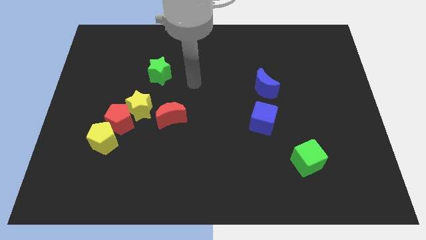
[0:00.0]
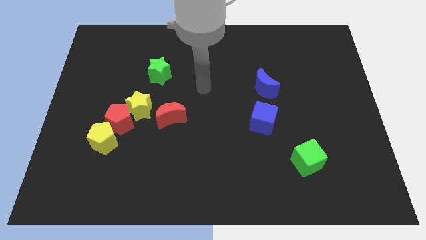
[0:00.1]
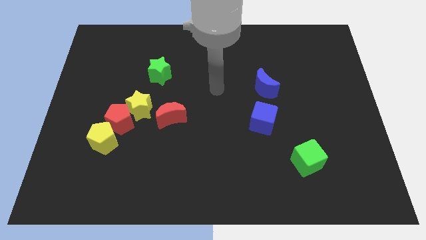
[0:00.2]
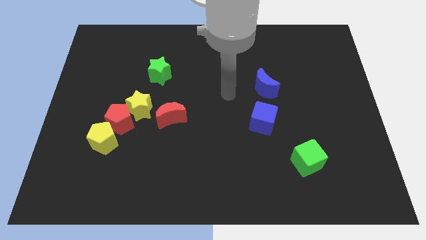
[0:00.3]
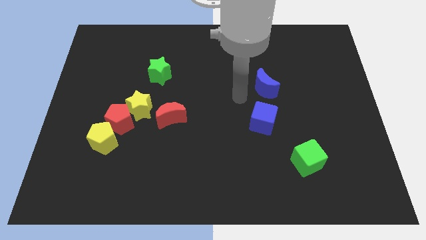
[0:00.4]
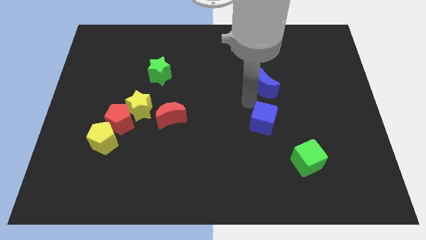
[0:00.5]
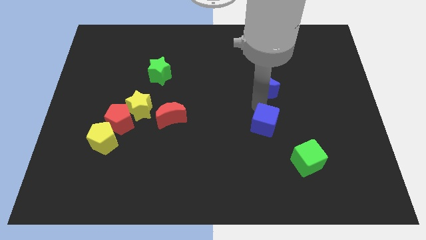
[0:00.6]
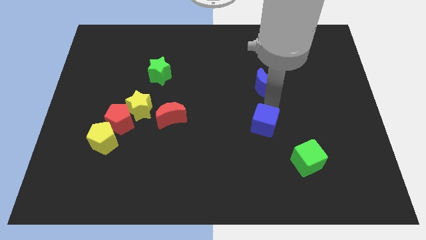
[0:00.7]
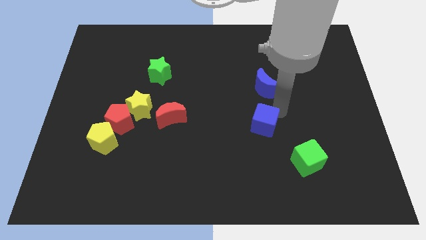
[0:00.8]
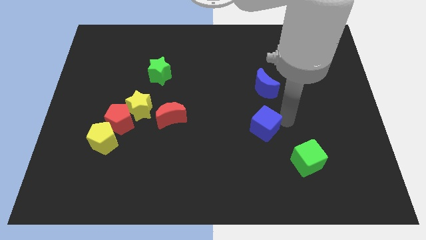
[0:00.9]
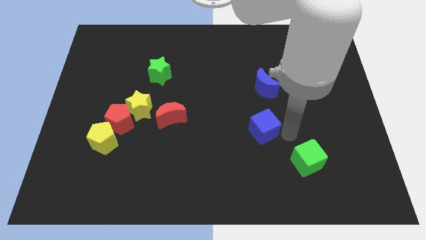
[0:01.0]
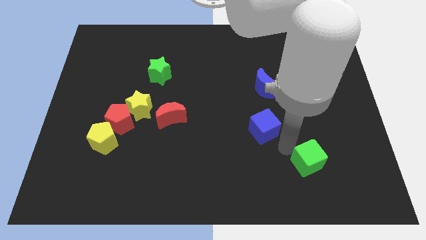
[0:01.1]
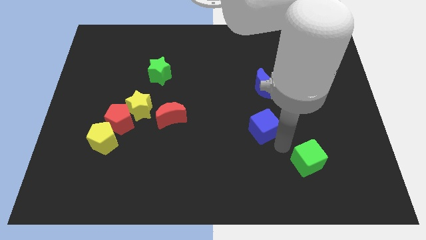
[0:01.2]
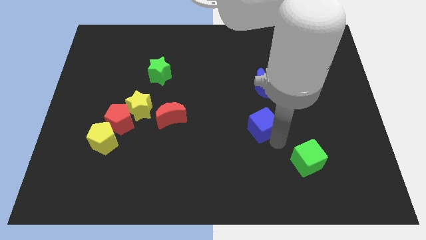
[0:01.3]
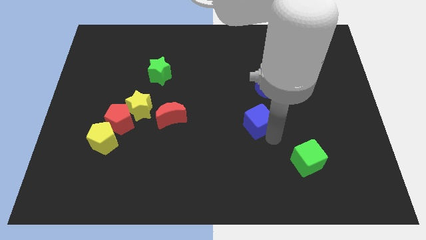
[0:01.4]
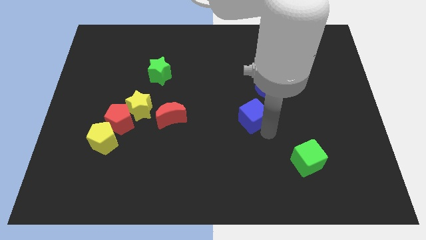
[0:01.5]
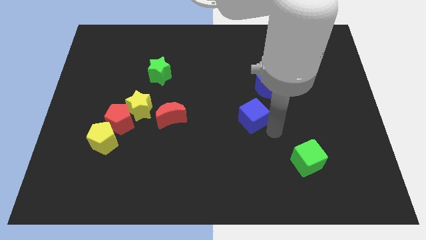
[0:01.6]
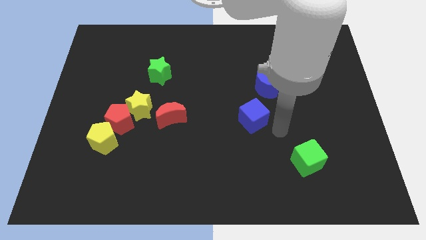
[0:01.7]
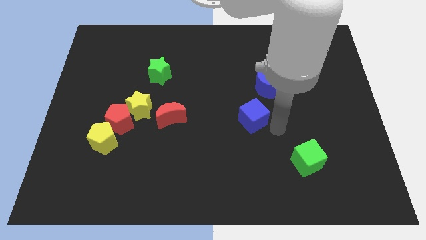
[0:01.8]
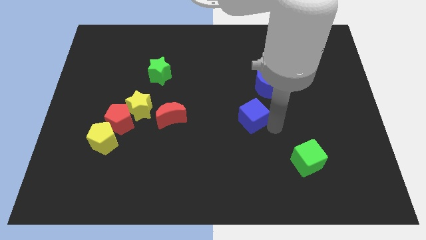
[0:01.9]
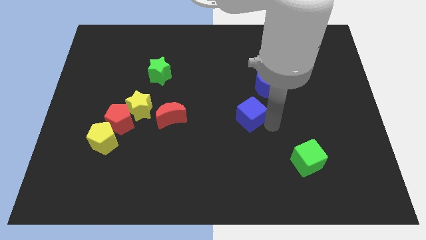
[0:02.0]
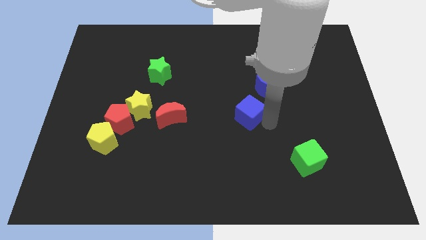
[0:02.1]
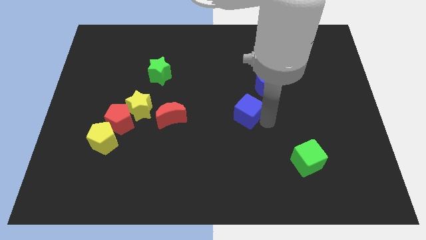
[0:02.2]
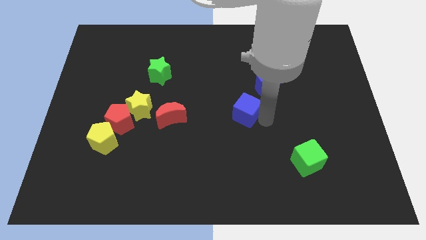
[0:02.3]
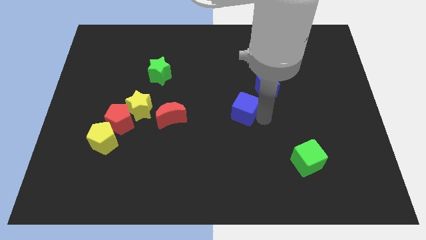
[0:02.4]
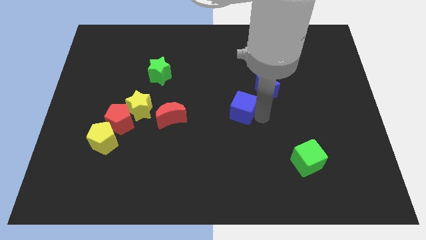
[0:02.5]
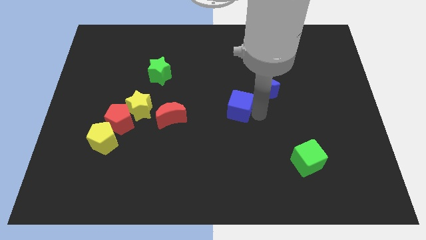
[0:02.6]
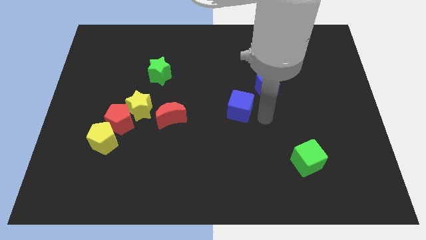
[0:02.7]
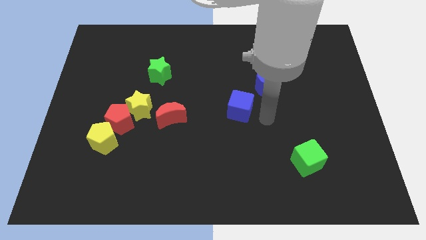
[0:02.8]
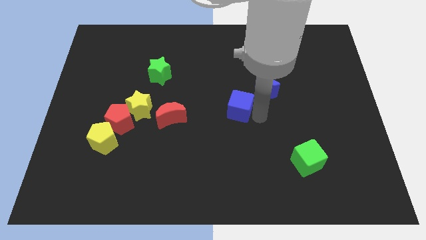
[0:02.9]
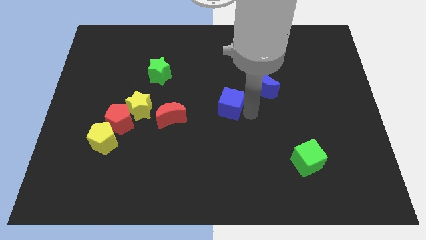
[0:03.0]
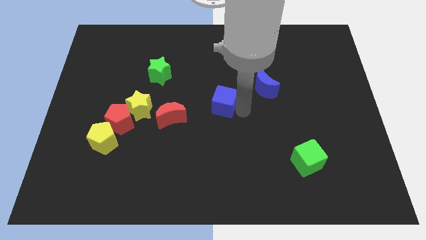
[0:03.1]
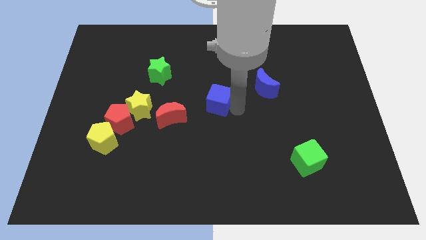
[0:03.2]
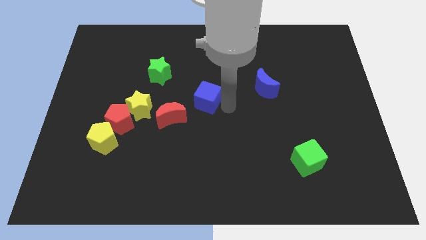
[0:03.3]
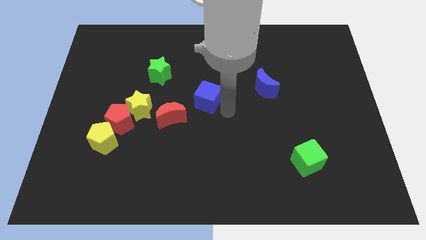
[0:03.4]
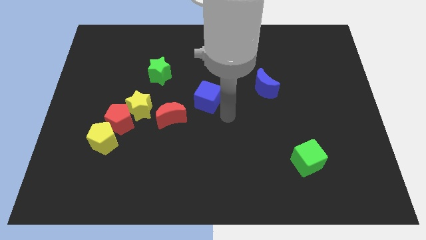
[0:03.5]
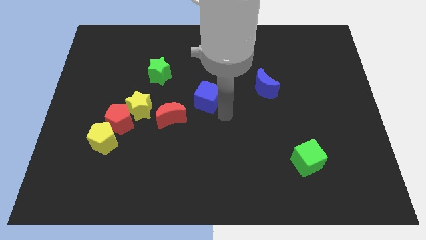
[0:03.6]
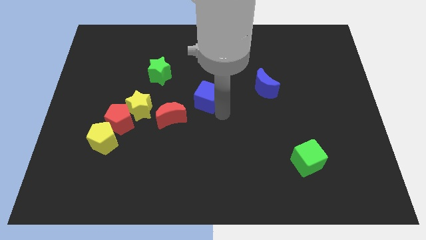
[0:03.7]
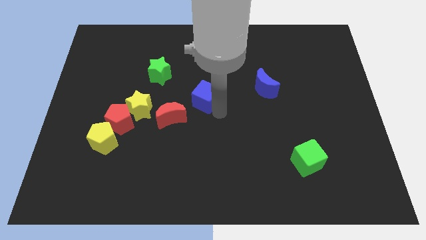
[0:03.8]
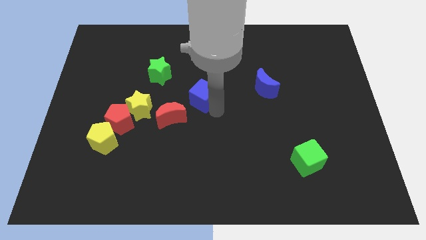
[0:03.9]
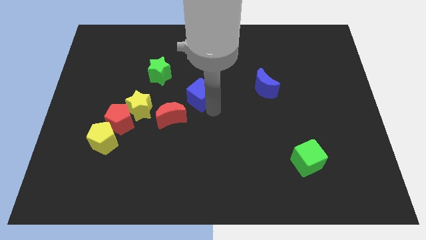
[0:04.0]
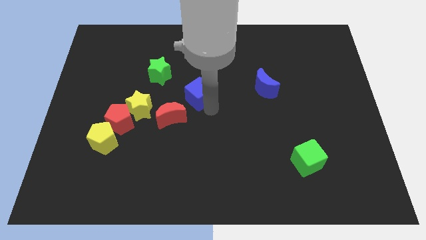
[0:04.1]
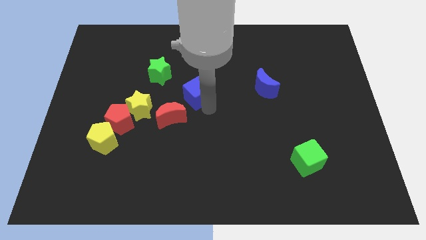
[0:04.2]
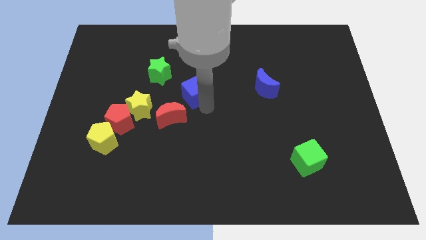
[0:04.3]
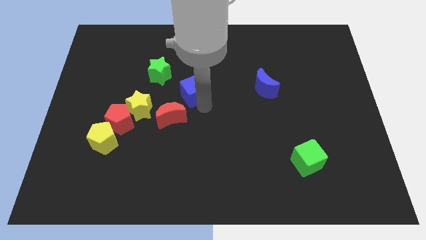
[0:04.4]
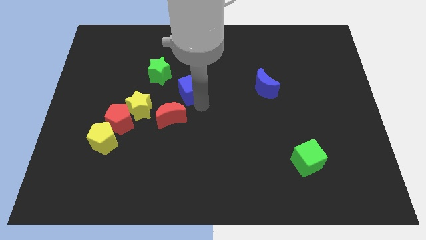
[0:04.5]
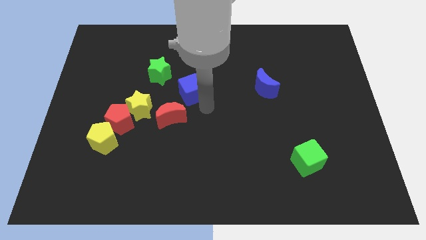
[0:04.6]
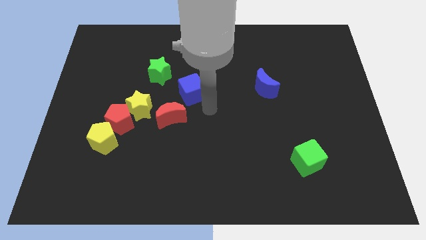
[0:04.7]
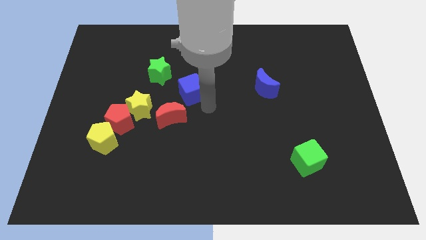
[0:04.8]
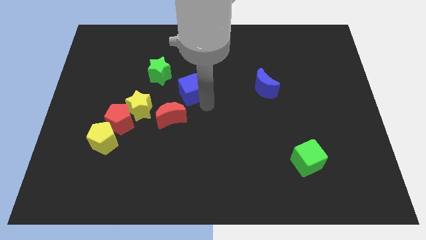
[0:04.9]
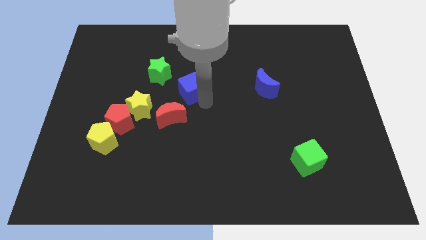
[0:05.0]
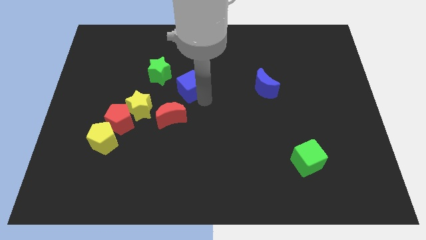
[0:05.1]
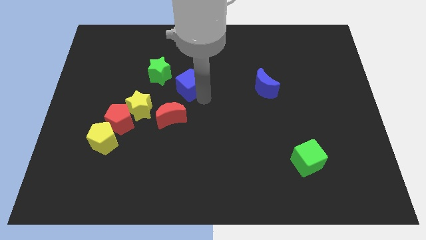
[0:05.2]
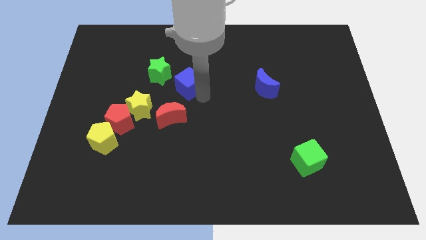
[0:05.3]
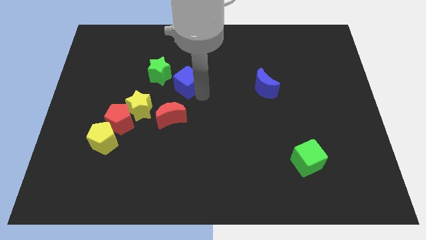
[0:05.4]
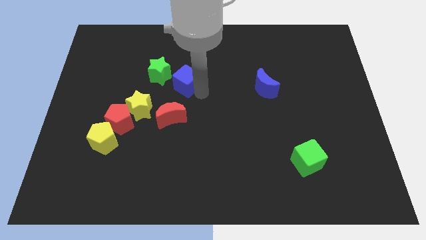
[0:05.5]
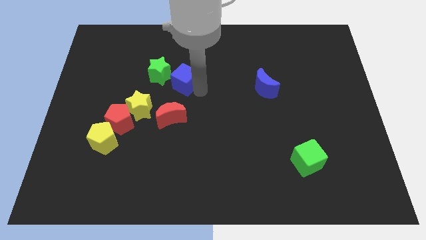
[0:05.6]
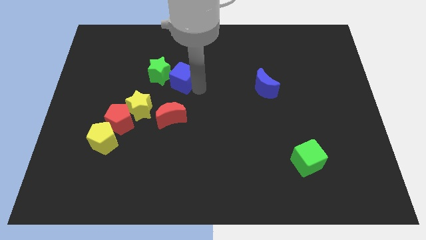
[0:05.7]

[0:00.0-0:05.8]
put the blue cube next to the green star

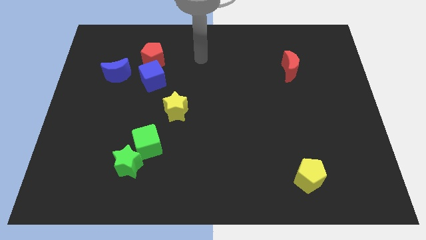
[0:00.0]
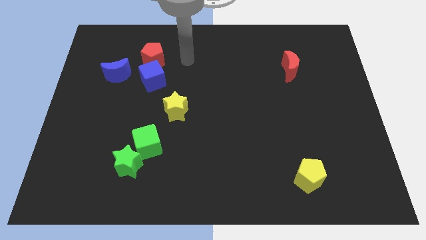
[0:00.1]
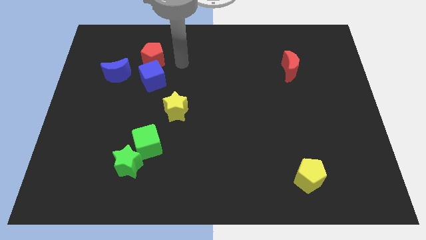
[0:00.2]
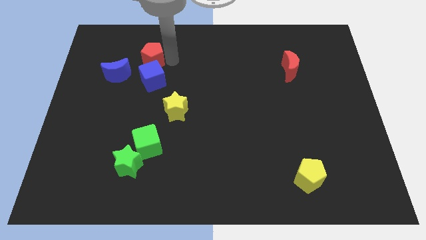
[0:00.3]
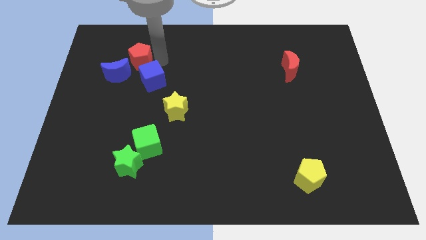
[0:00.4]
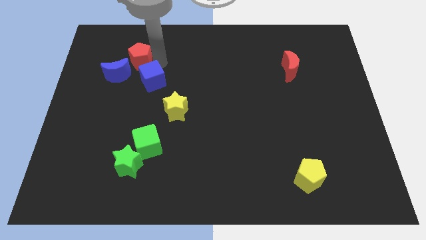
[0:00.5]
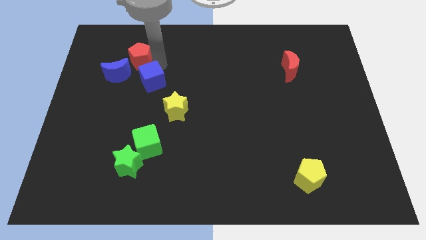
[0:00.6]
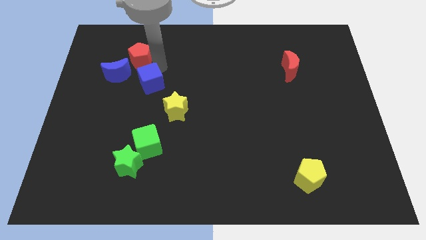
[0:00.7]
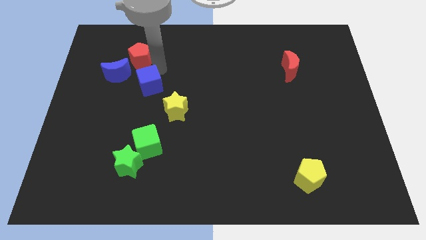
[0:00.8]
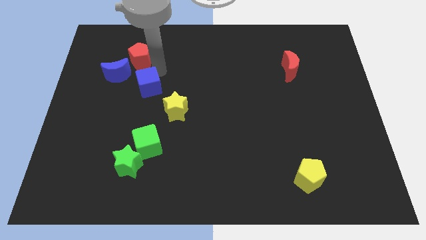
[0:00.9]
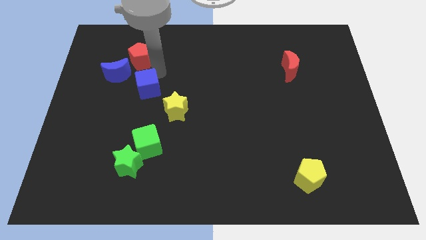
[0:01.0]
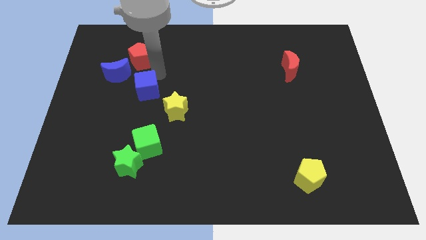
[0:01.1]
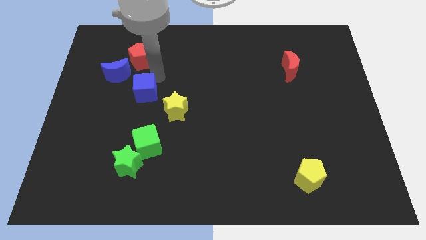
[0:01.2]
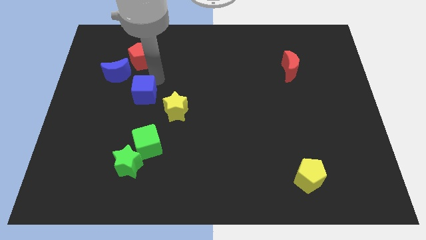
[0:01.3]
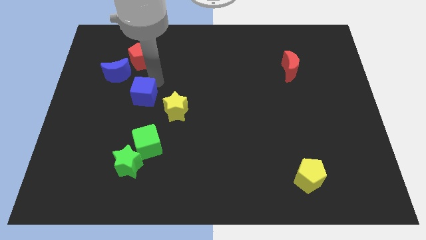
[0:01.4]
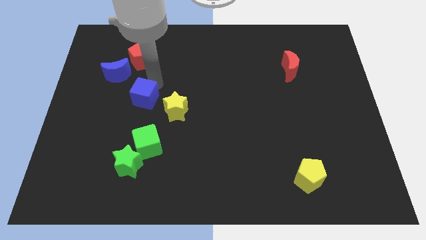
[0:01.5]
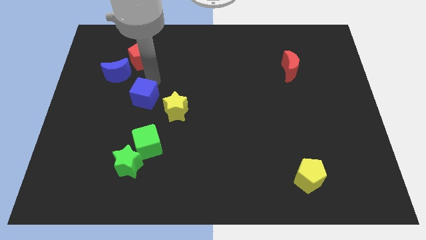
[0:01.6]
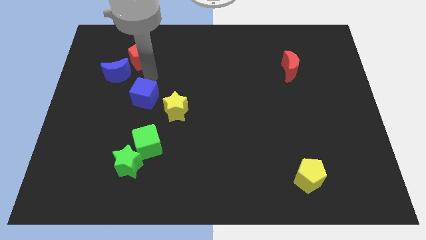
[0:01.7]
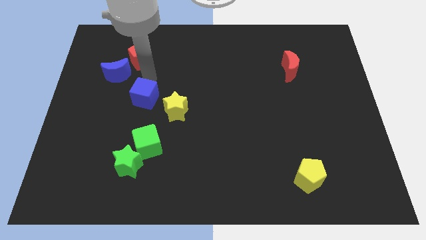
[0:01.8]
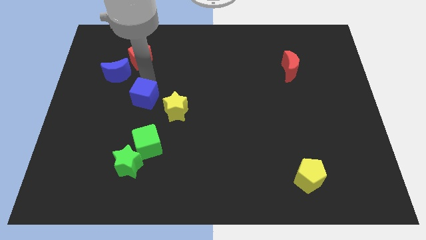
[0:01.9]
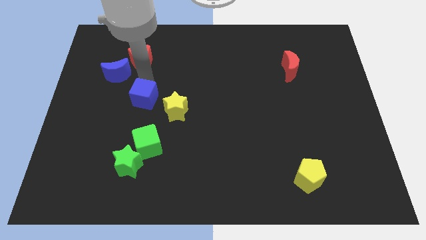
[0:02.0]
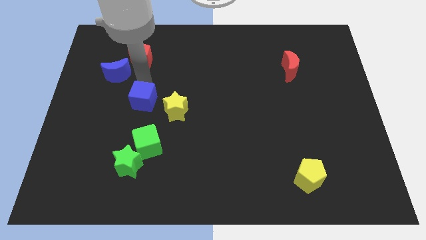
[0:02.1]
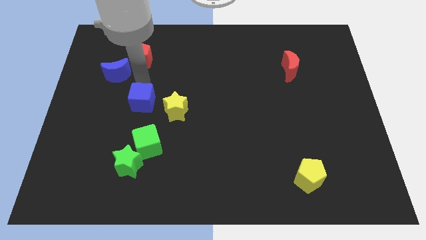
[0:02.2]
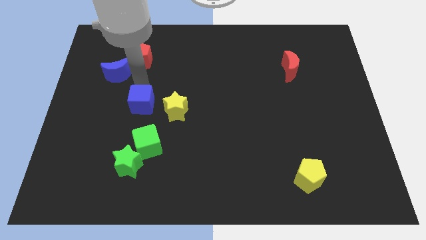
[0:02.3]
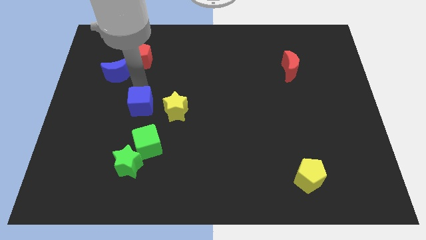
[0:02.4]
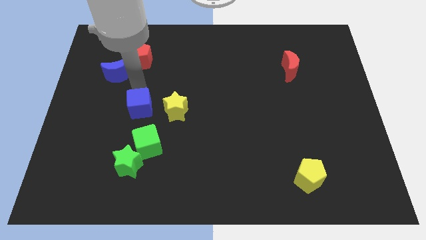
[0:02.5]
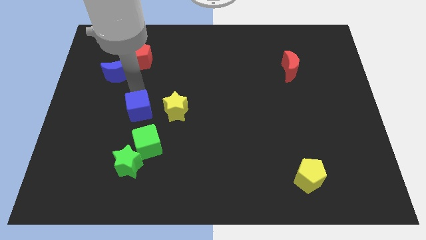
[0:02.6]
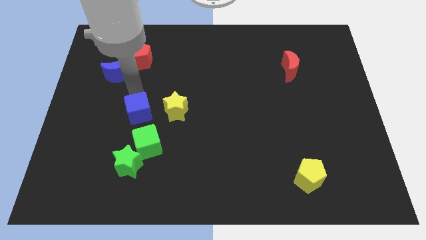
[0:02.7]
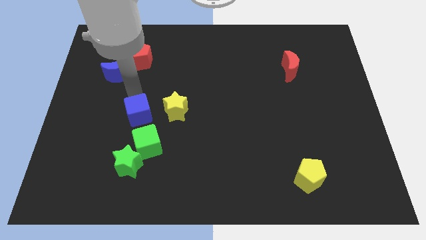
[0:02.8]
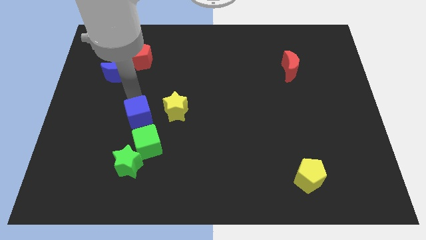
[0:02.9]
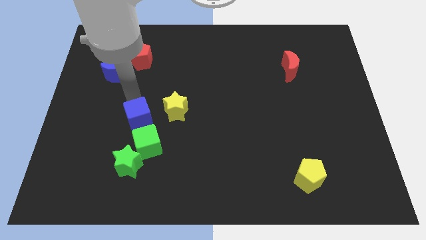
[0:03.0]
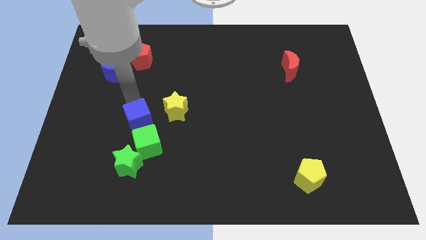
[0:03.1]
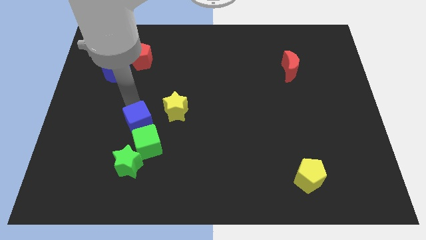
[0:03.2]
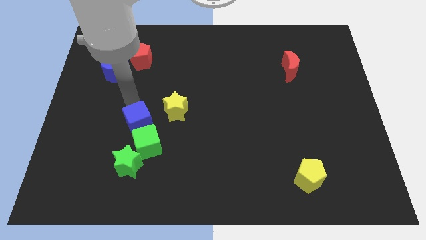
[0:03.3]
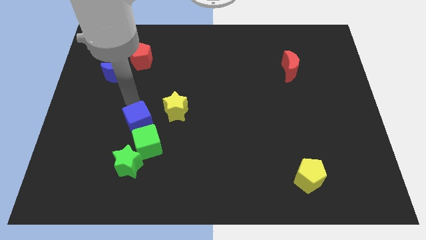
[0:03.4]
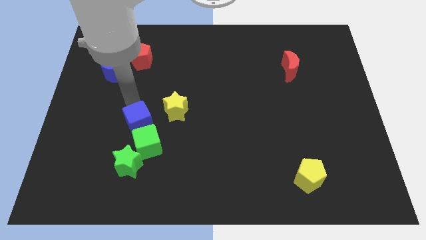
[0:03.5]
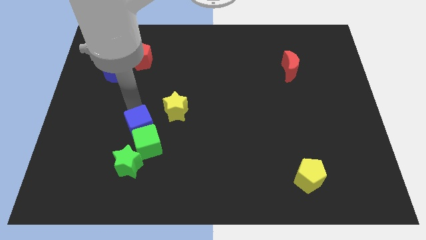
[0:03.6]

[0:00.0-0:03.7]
move the blue cube to the green cube
